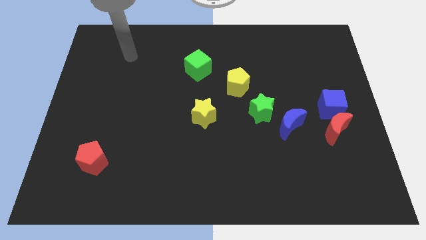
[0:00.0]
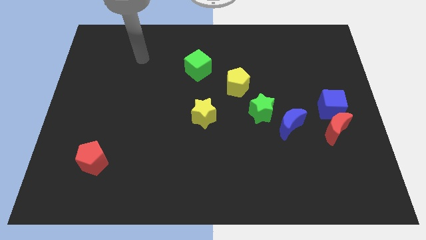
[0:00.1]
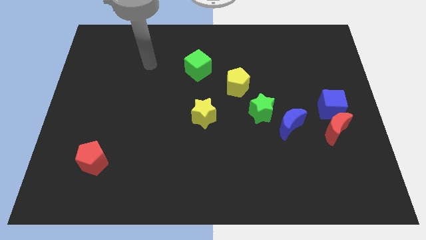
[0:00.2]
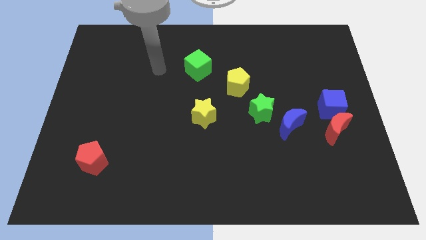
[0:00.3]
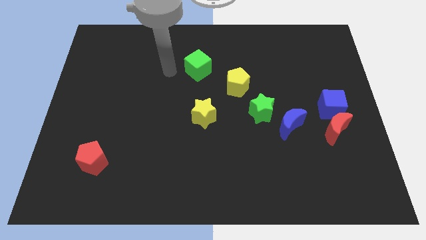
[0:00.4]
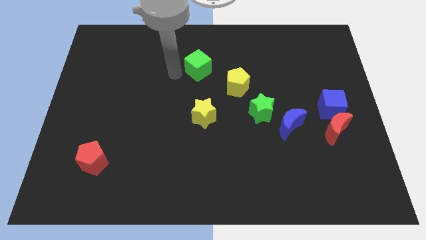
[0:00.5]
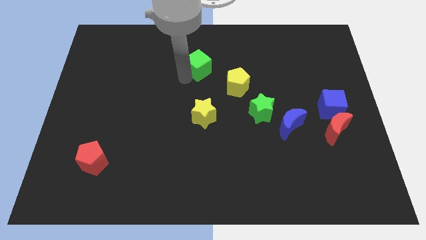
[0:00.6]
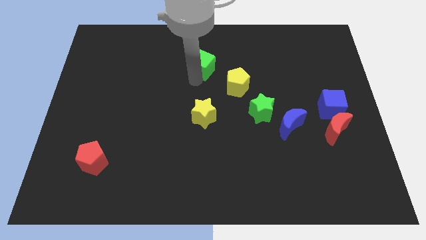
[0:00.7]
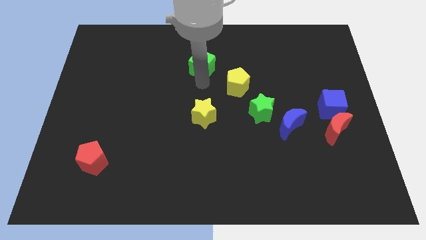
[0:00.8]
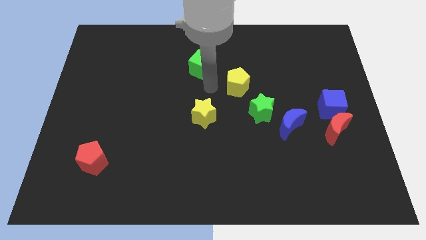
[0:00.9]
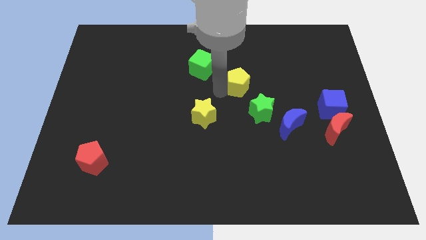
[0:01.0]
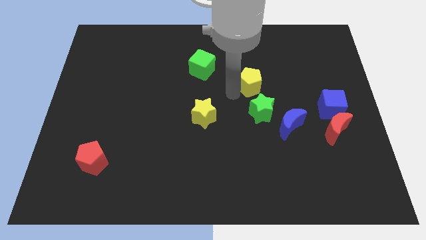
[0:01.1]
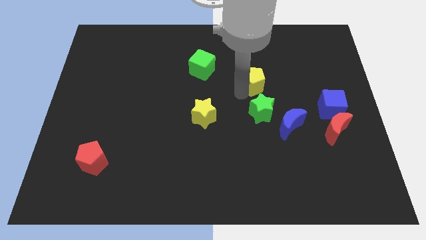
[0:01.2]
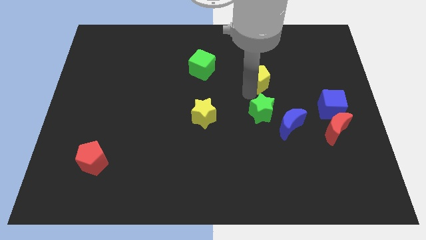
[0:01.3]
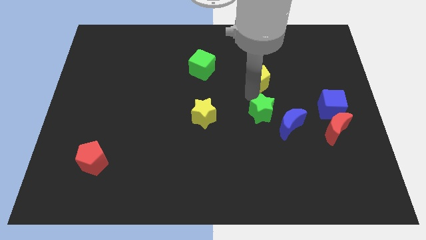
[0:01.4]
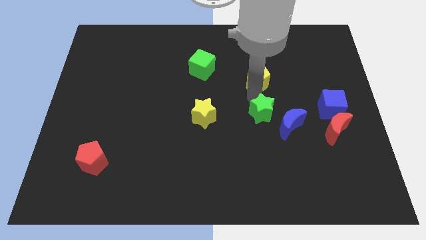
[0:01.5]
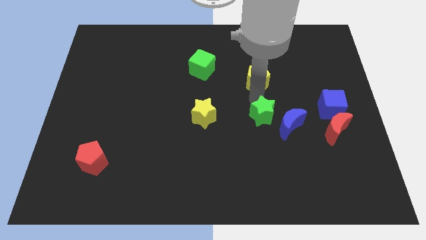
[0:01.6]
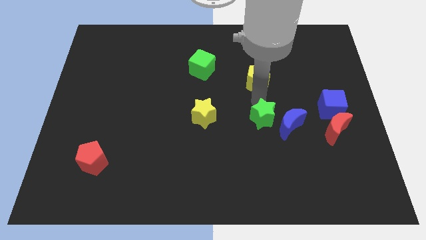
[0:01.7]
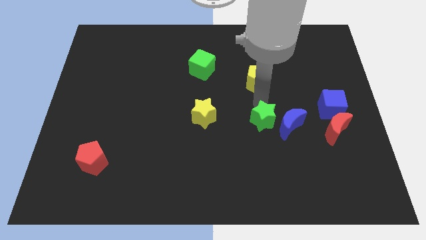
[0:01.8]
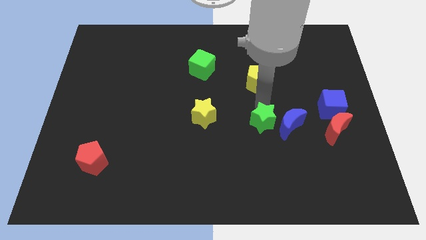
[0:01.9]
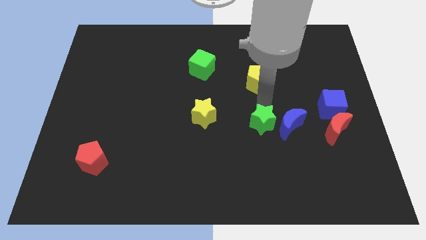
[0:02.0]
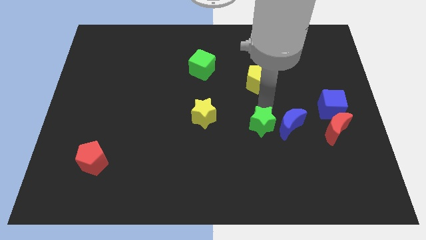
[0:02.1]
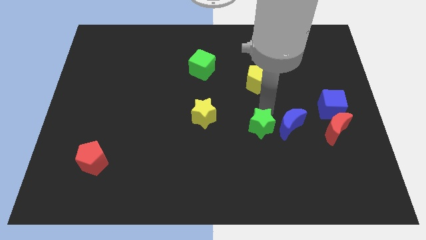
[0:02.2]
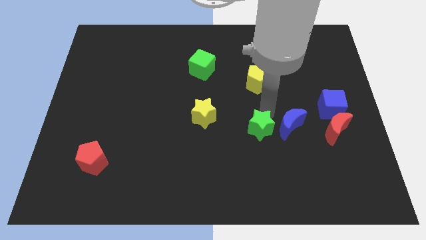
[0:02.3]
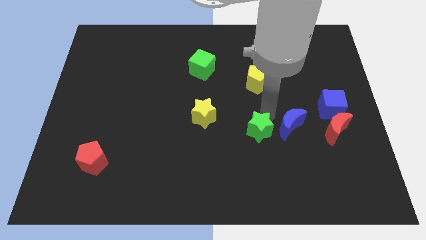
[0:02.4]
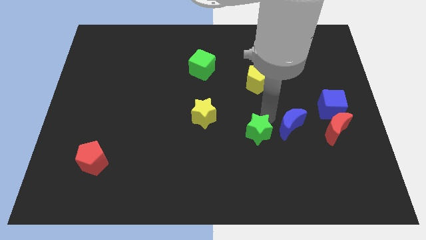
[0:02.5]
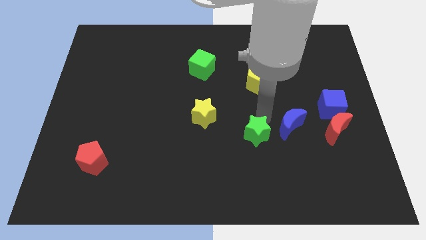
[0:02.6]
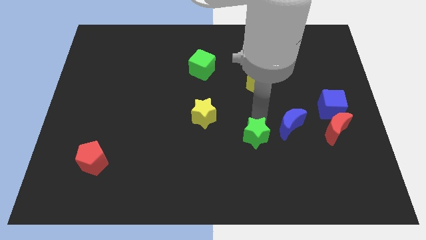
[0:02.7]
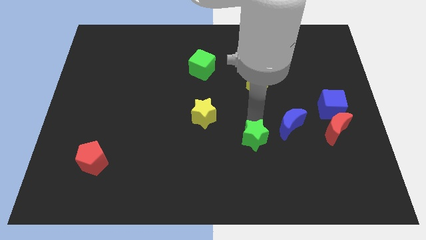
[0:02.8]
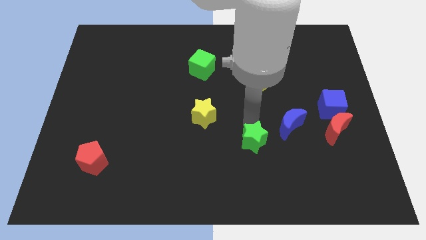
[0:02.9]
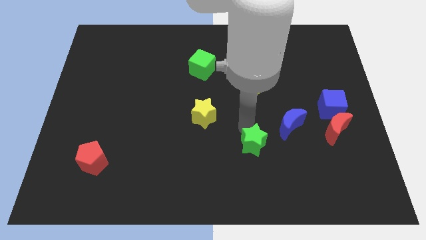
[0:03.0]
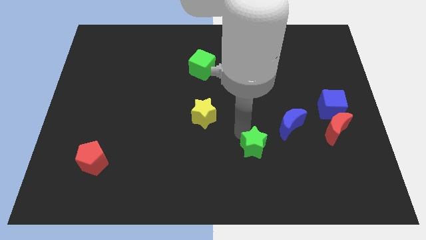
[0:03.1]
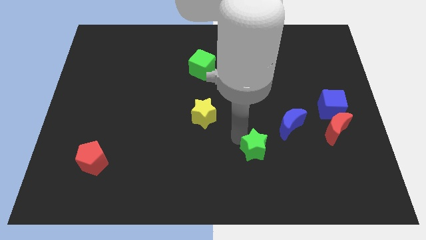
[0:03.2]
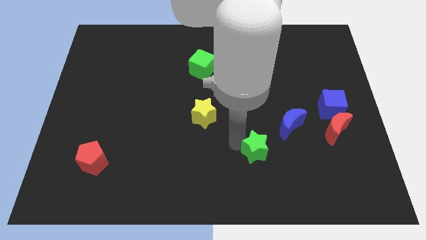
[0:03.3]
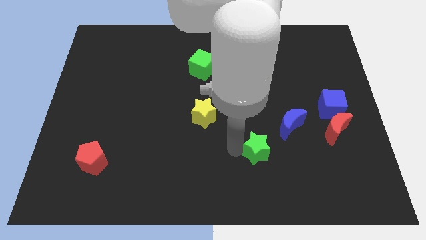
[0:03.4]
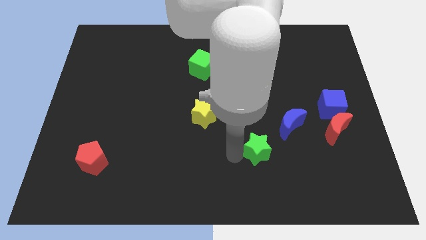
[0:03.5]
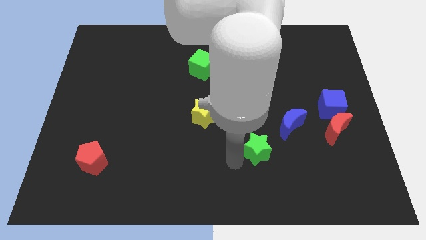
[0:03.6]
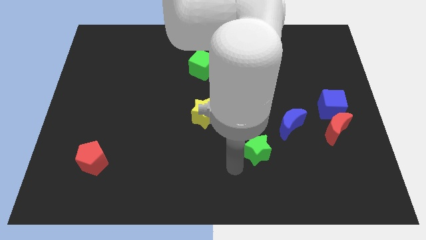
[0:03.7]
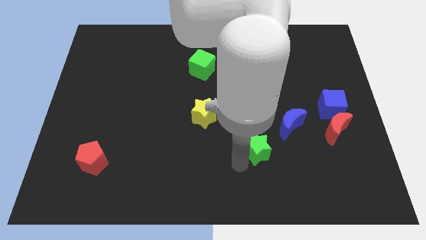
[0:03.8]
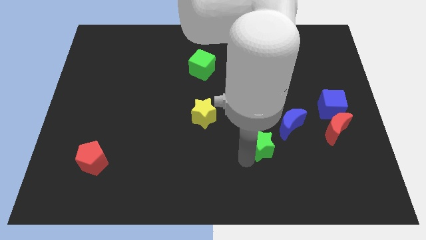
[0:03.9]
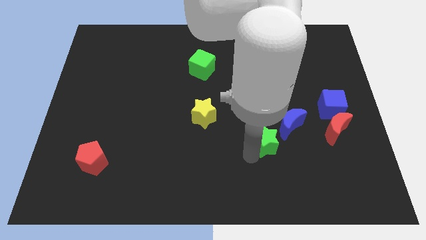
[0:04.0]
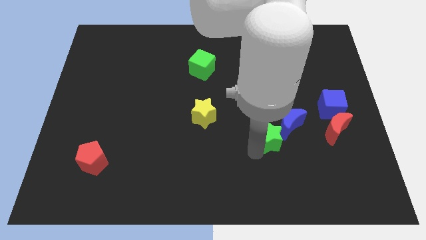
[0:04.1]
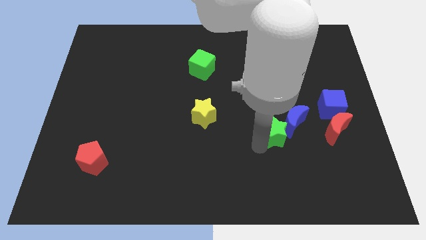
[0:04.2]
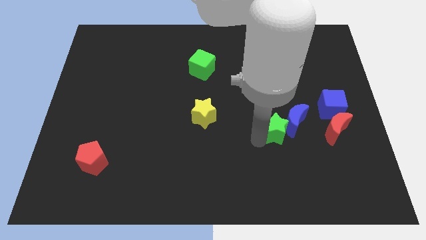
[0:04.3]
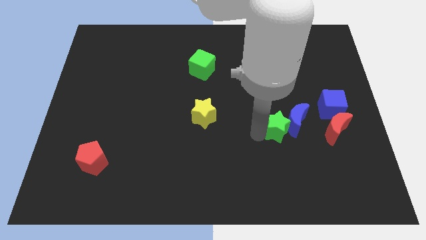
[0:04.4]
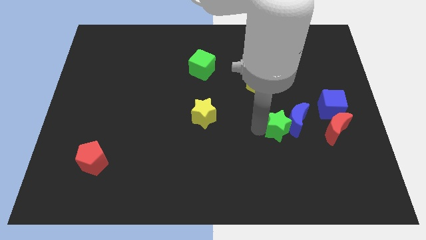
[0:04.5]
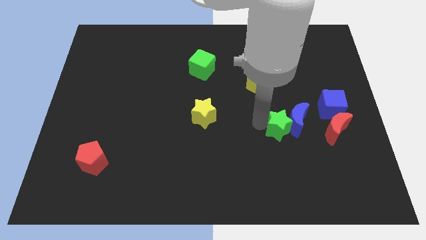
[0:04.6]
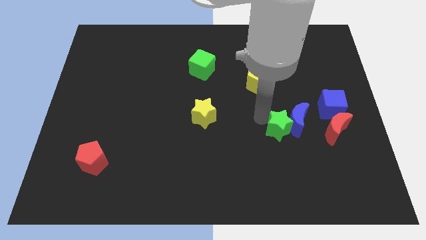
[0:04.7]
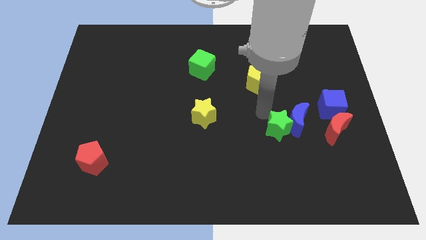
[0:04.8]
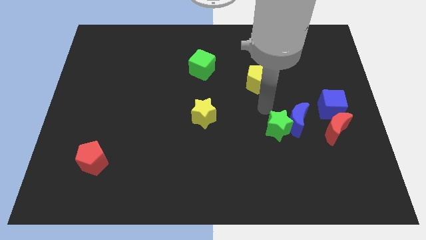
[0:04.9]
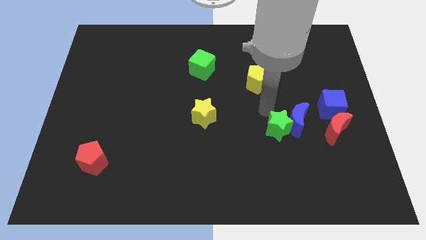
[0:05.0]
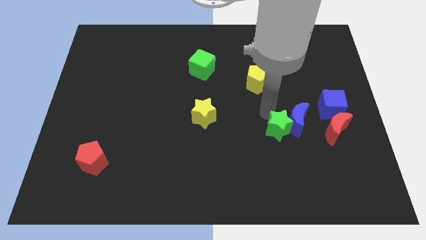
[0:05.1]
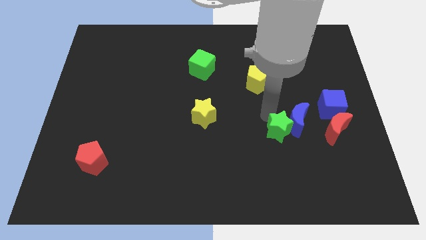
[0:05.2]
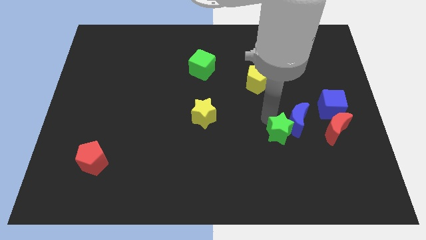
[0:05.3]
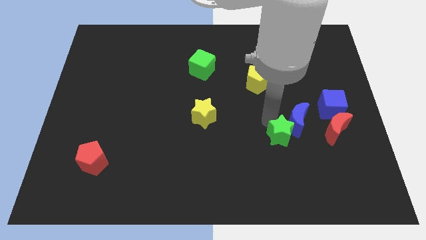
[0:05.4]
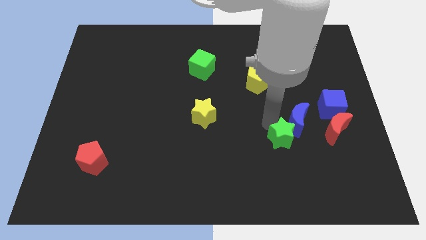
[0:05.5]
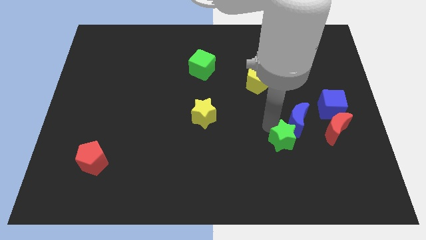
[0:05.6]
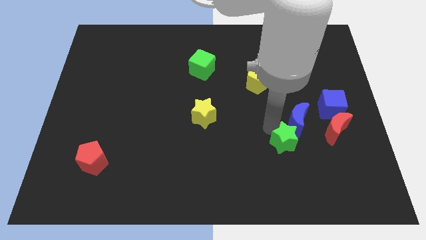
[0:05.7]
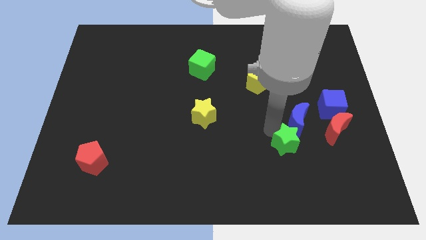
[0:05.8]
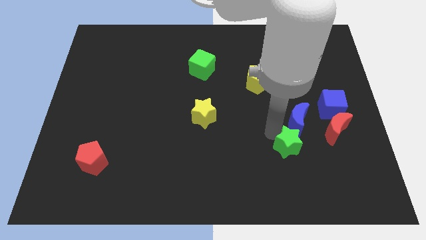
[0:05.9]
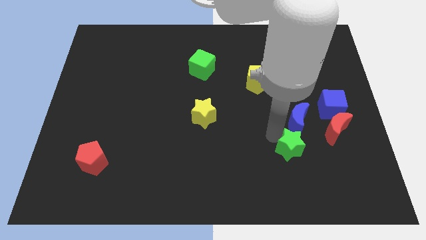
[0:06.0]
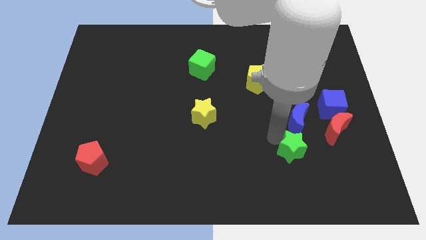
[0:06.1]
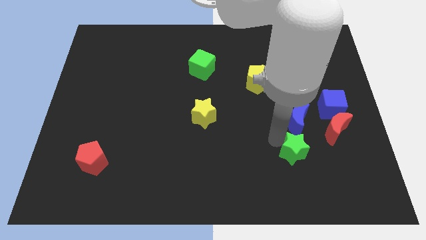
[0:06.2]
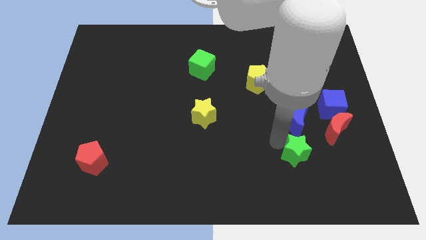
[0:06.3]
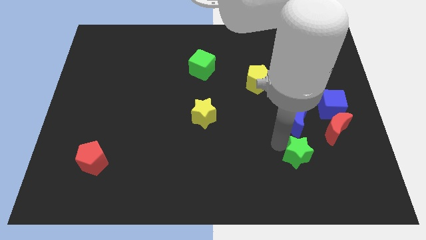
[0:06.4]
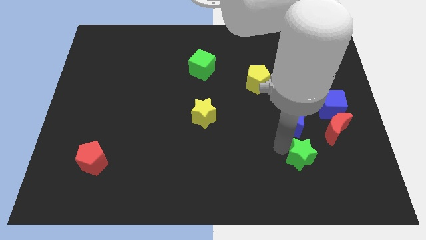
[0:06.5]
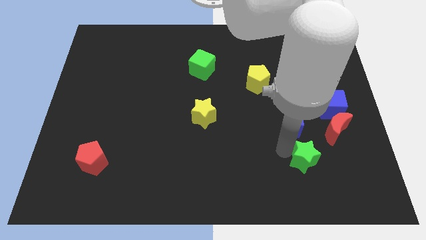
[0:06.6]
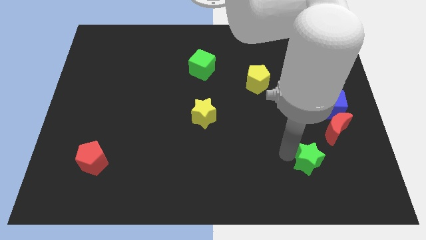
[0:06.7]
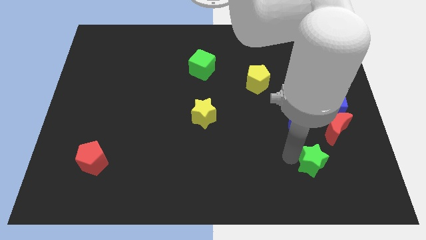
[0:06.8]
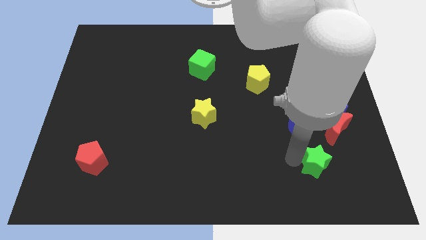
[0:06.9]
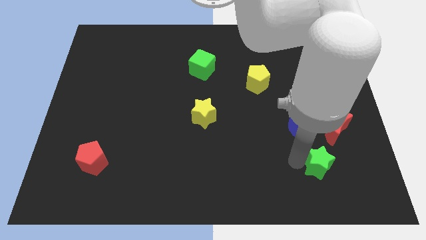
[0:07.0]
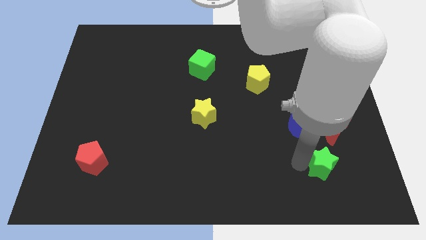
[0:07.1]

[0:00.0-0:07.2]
push the green star to the bottom of the red moon
